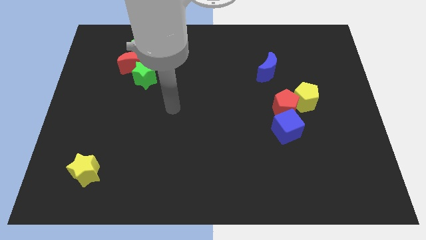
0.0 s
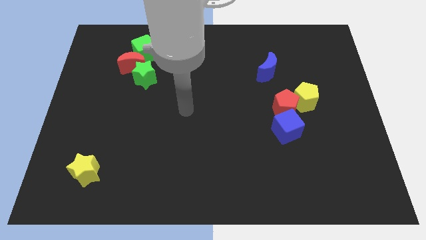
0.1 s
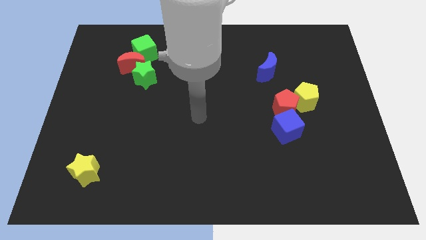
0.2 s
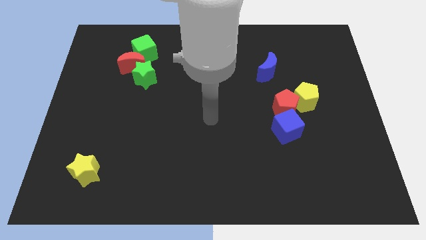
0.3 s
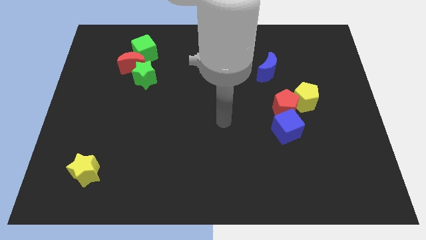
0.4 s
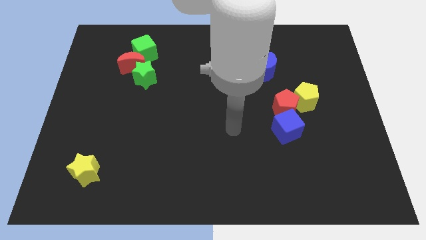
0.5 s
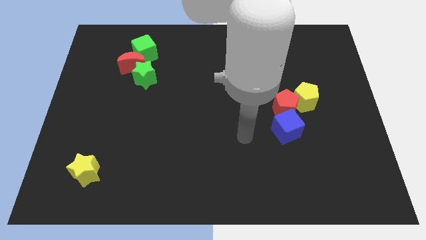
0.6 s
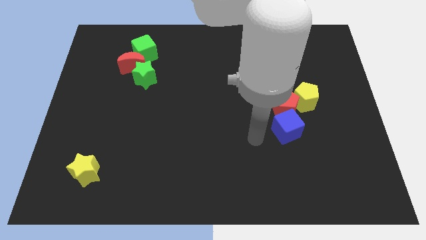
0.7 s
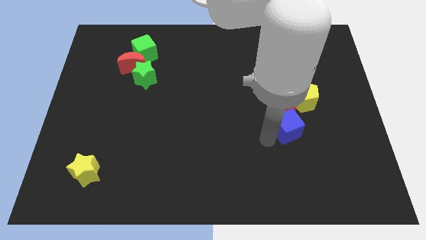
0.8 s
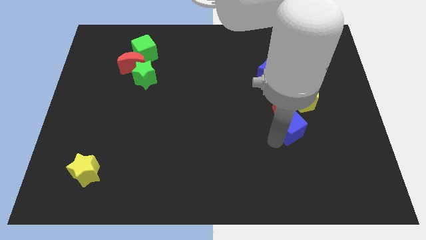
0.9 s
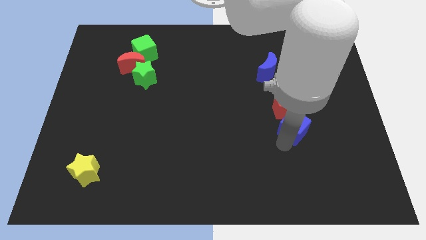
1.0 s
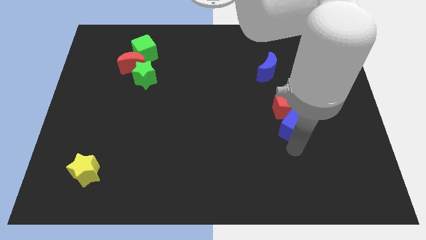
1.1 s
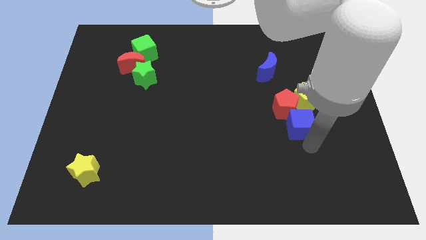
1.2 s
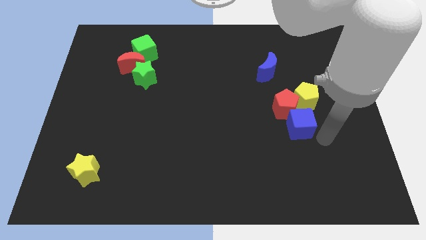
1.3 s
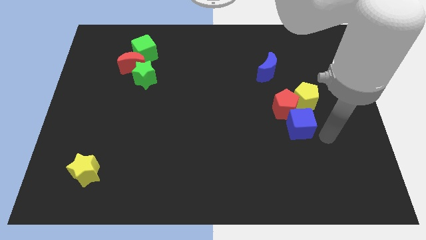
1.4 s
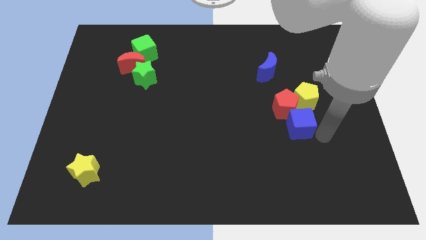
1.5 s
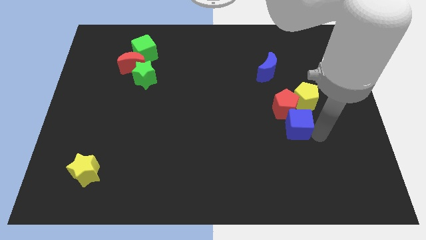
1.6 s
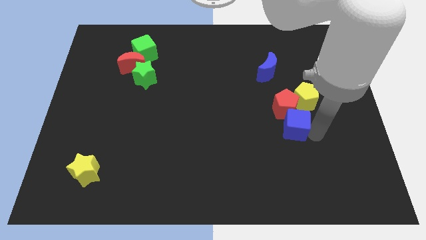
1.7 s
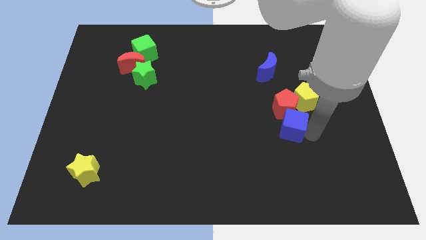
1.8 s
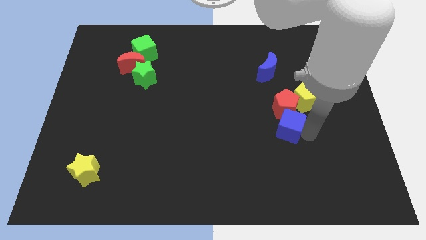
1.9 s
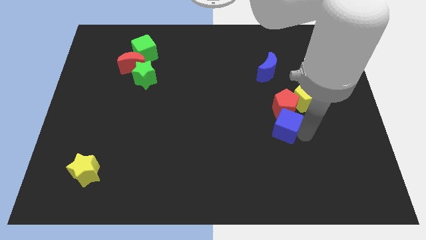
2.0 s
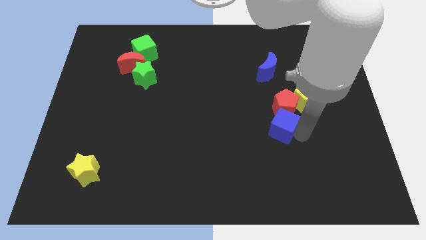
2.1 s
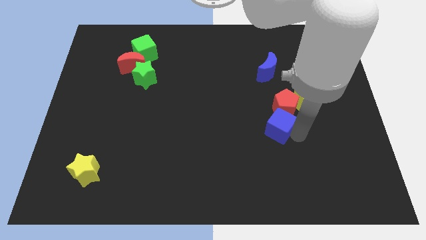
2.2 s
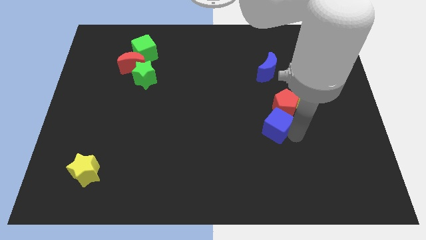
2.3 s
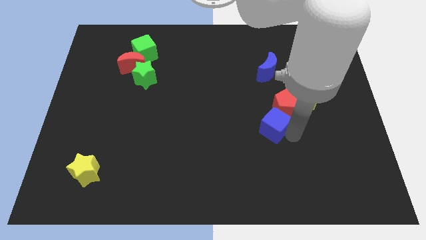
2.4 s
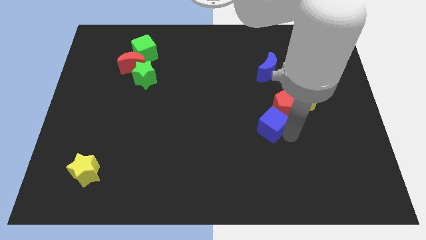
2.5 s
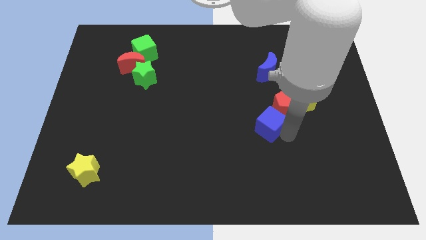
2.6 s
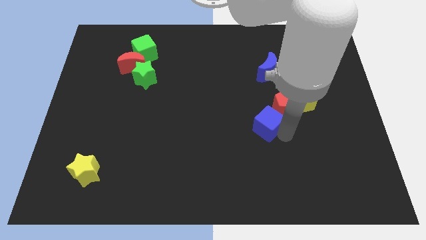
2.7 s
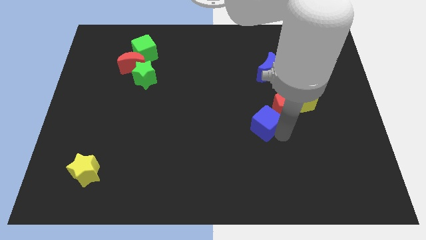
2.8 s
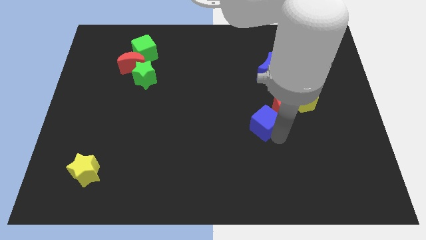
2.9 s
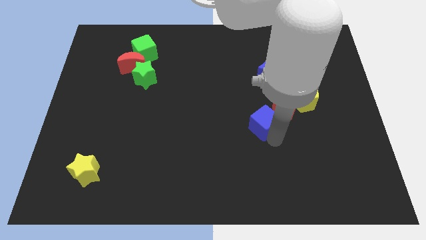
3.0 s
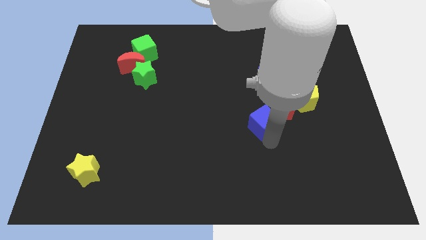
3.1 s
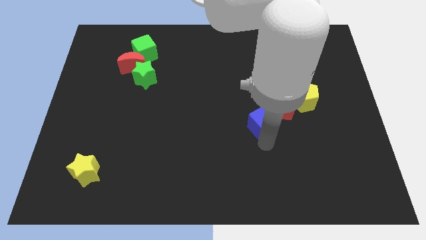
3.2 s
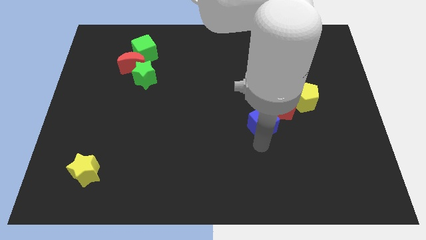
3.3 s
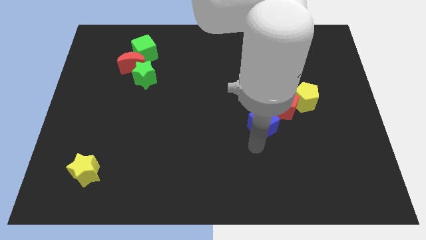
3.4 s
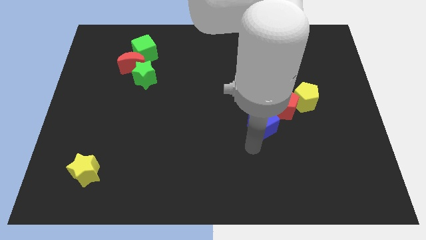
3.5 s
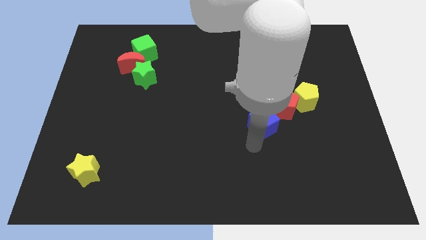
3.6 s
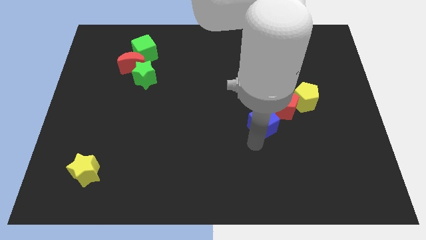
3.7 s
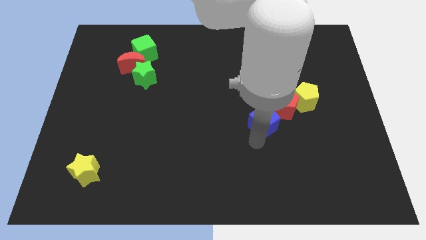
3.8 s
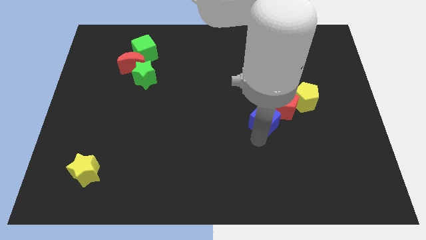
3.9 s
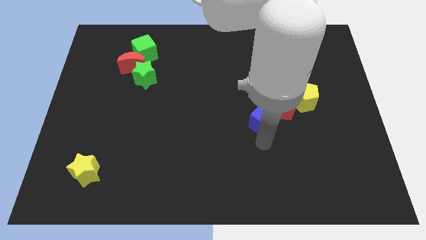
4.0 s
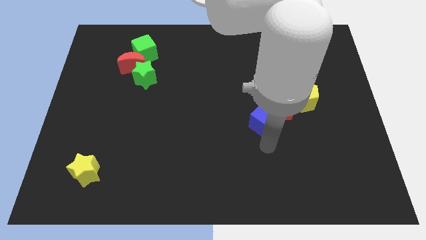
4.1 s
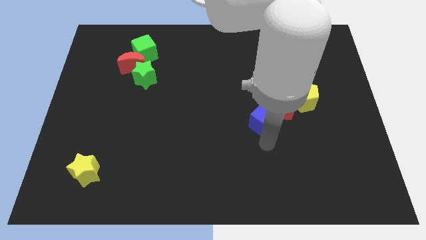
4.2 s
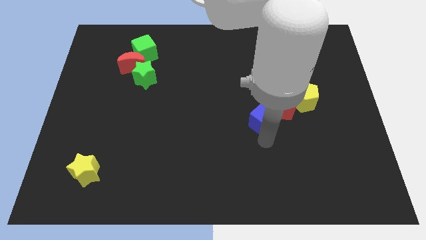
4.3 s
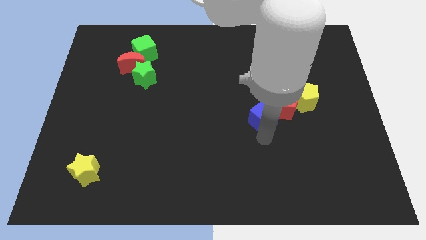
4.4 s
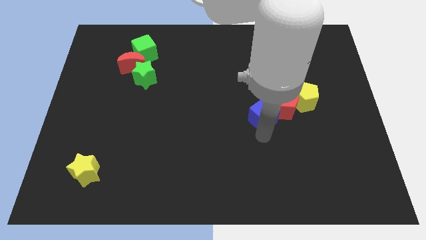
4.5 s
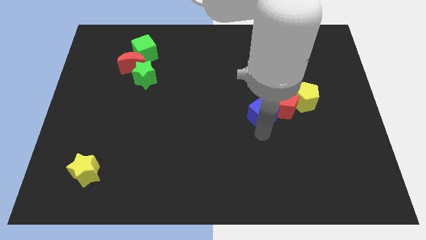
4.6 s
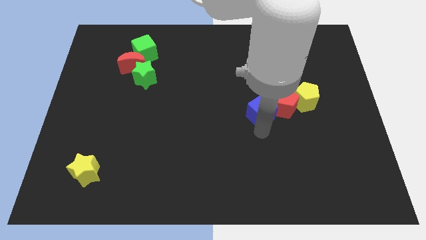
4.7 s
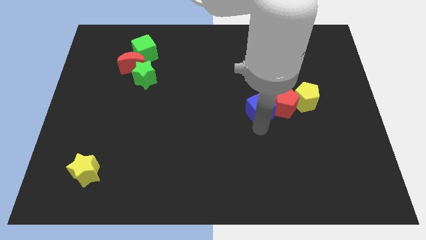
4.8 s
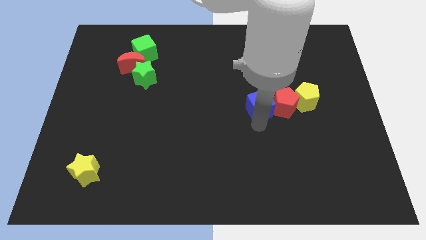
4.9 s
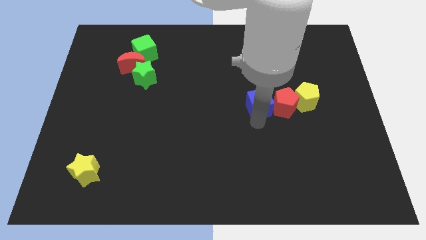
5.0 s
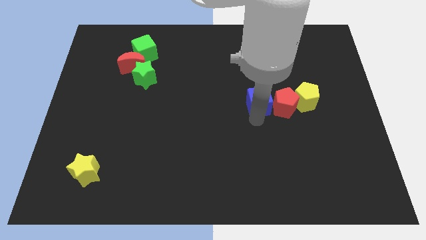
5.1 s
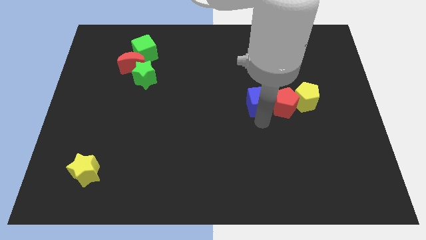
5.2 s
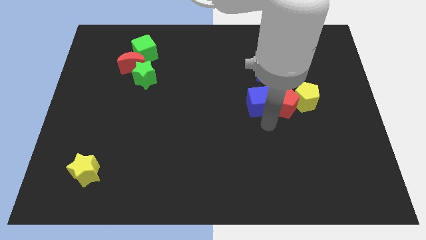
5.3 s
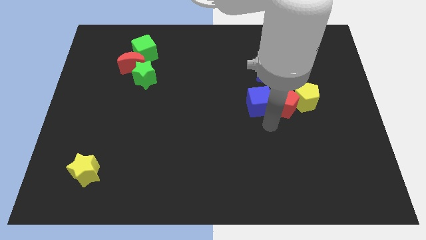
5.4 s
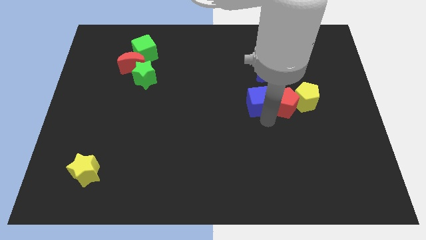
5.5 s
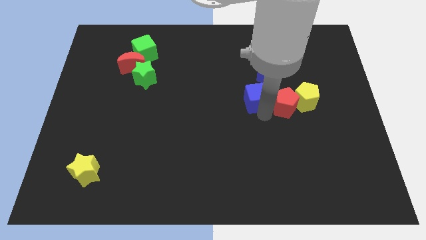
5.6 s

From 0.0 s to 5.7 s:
slide the blue cube diagonally down and to the left of the blue moon

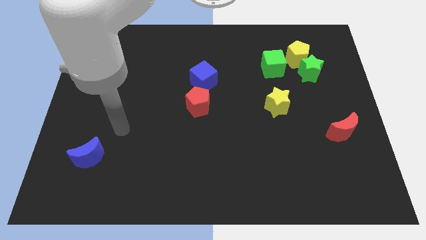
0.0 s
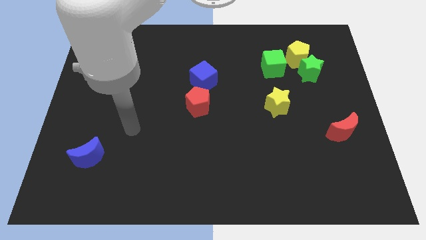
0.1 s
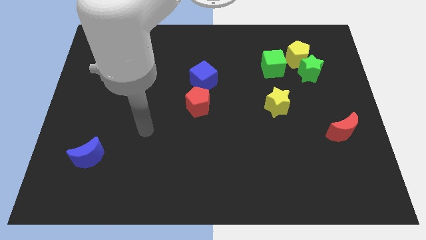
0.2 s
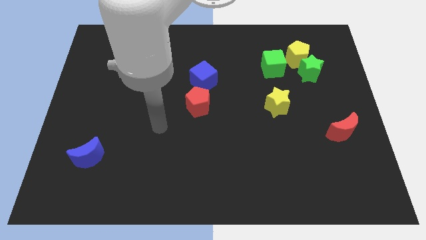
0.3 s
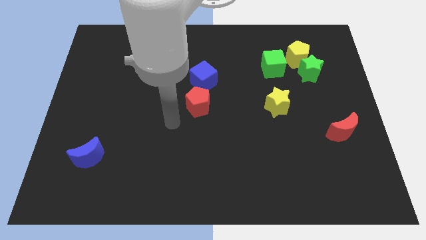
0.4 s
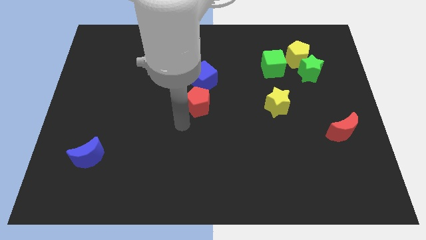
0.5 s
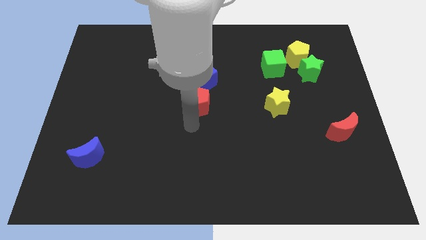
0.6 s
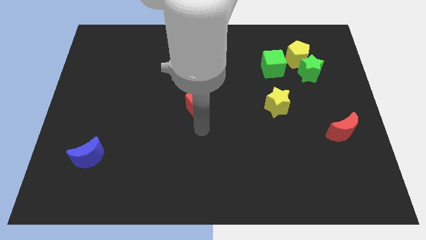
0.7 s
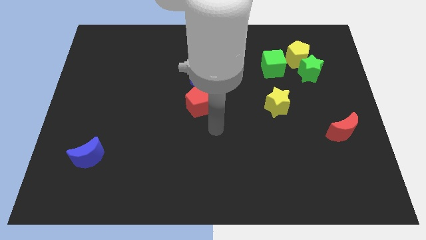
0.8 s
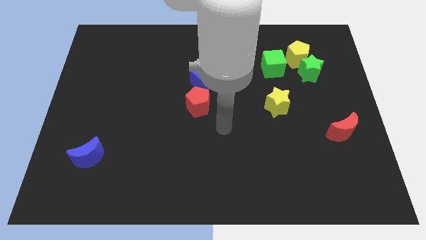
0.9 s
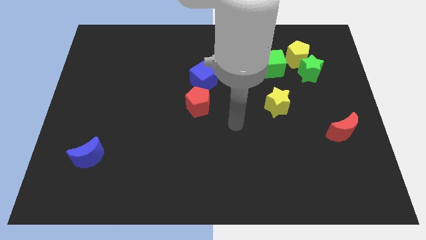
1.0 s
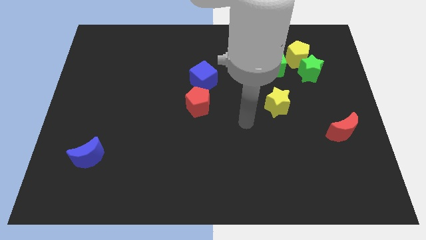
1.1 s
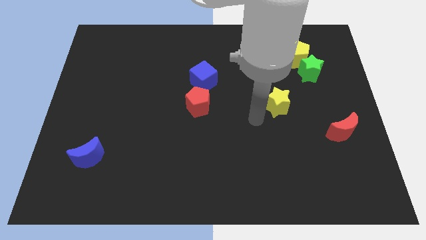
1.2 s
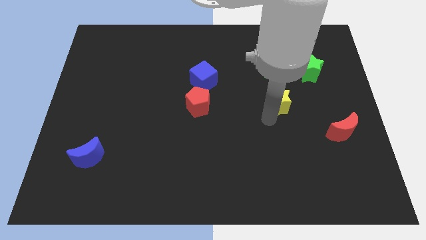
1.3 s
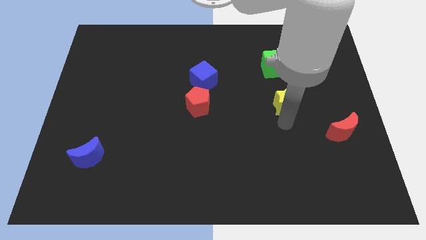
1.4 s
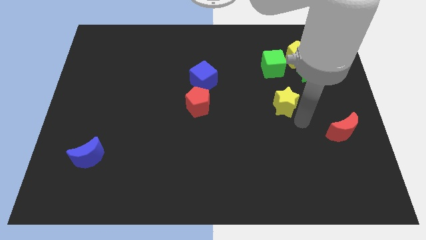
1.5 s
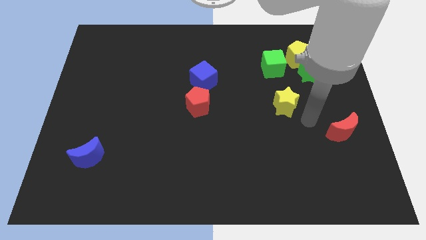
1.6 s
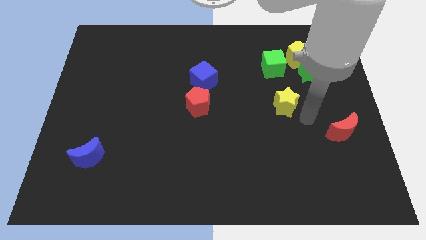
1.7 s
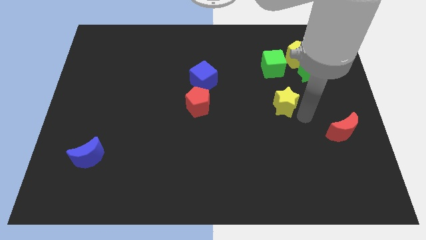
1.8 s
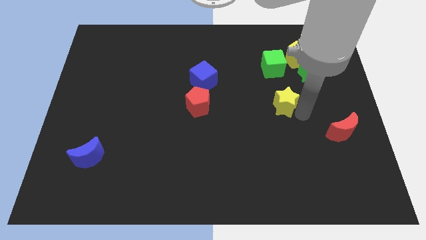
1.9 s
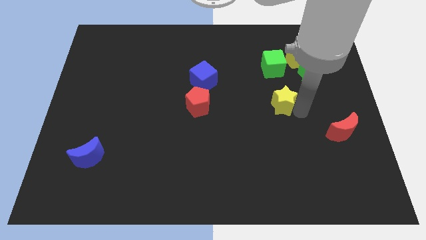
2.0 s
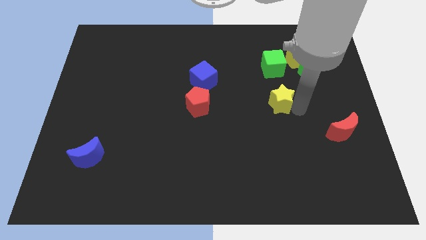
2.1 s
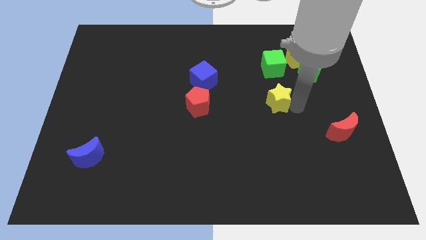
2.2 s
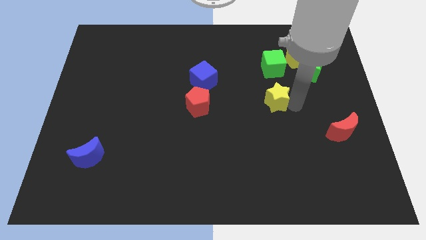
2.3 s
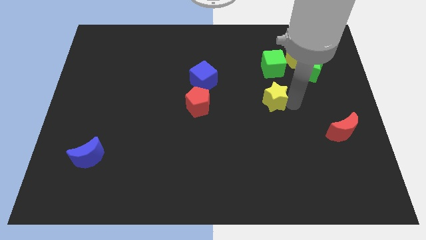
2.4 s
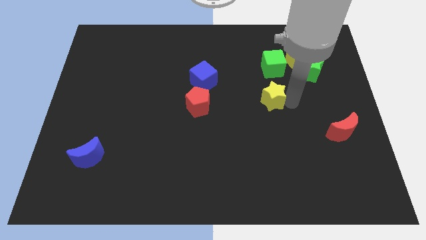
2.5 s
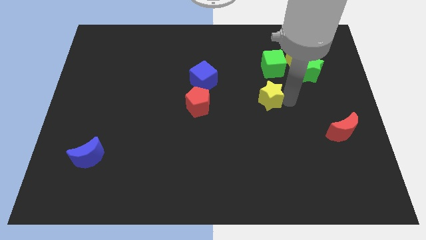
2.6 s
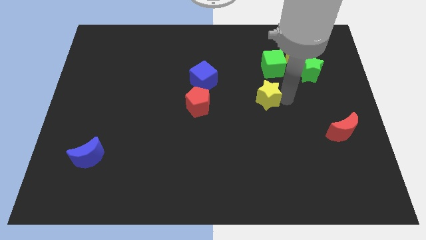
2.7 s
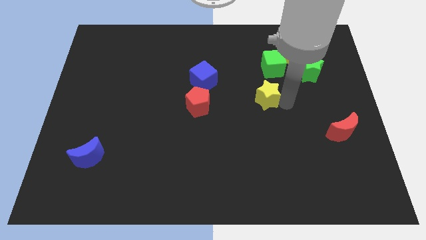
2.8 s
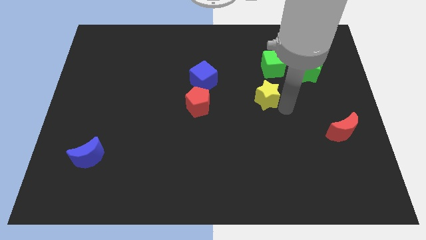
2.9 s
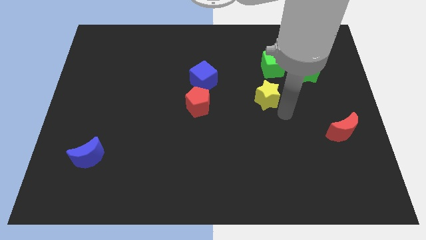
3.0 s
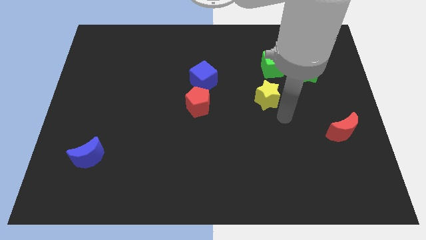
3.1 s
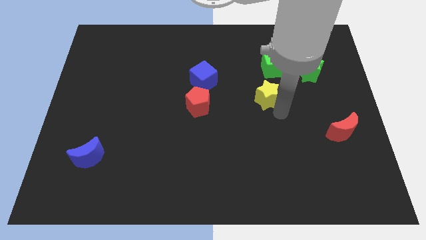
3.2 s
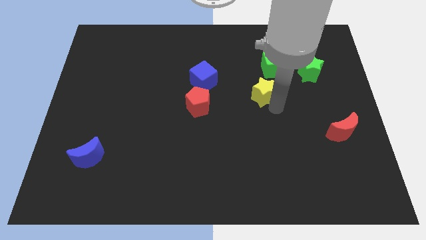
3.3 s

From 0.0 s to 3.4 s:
move the yellow star to the bottom left of the green cube
